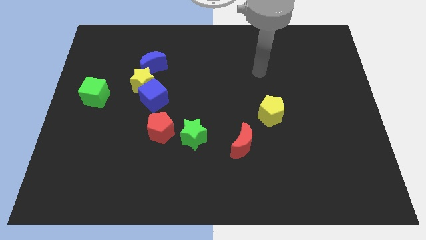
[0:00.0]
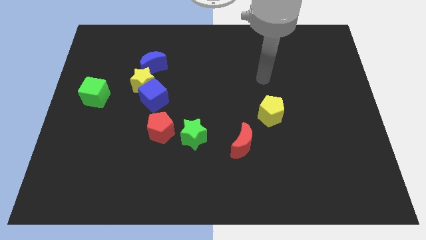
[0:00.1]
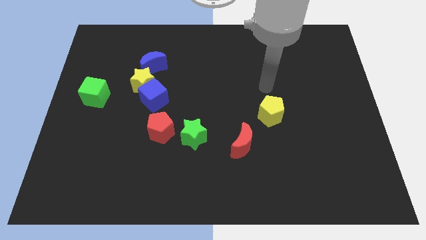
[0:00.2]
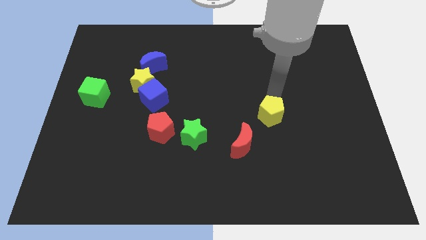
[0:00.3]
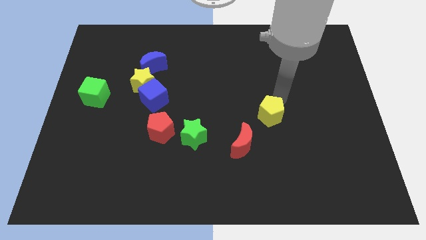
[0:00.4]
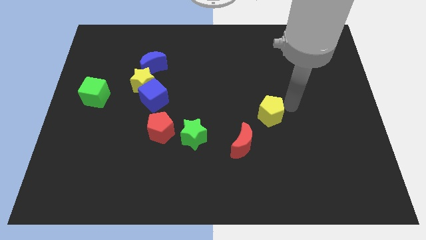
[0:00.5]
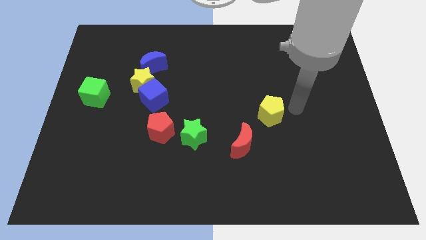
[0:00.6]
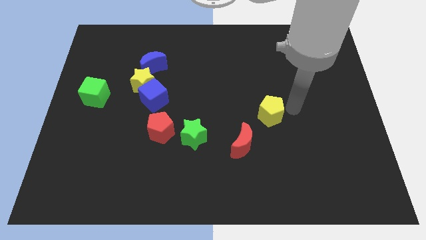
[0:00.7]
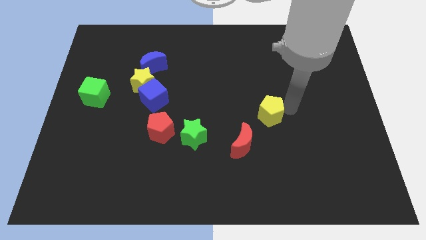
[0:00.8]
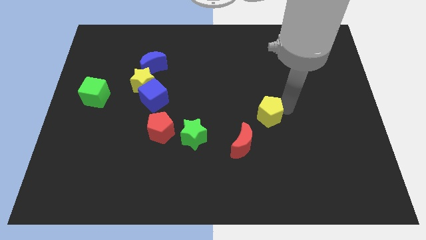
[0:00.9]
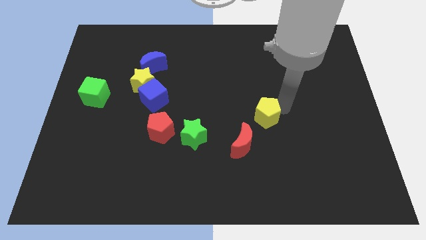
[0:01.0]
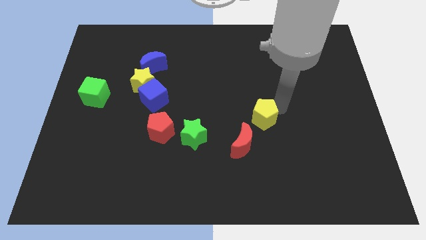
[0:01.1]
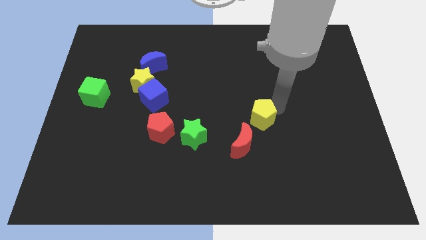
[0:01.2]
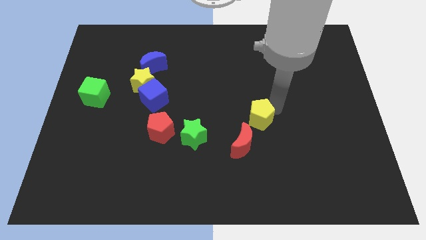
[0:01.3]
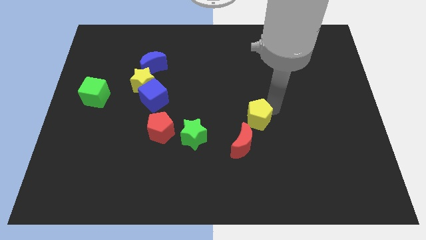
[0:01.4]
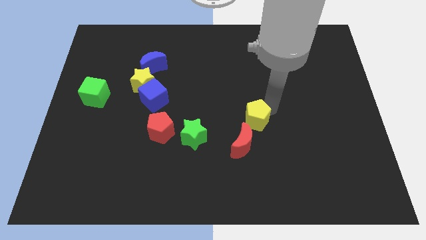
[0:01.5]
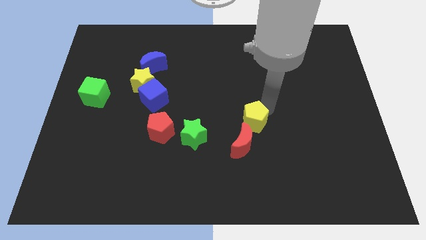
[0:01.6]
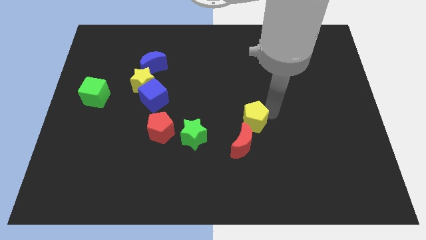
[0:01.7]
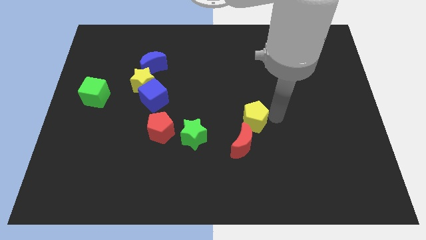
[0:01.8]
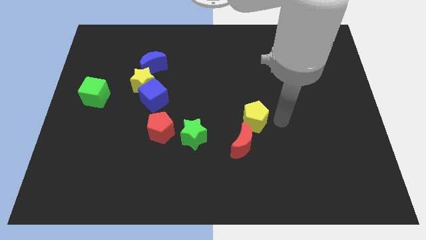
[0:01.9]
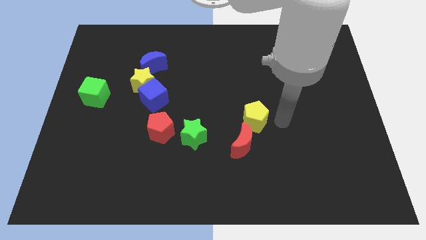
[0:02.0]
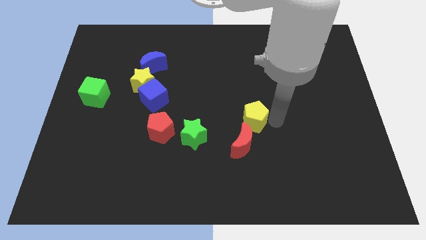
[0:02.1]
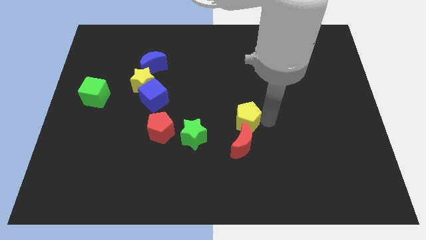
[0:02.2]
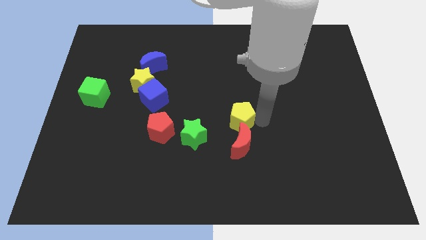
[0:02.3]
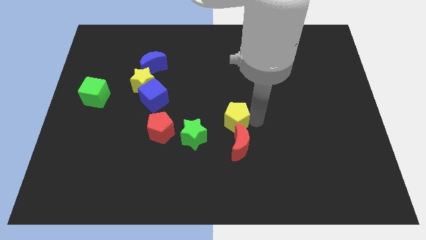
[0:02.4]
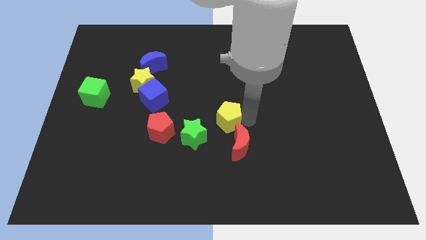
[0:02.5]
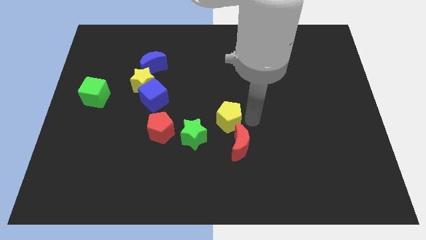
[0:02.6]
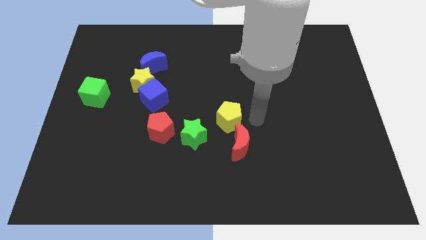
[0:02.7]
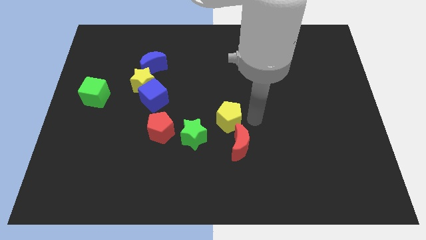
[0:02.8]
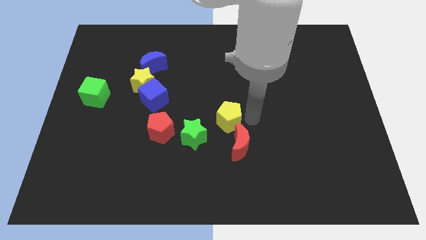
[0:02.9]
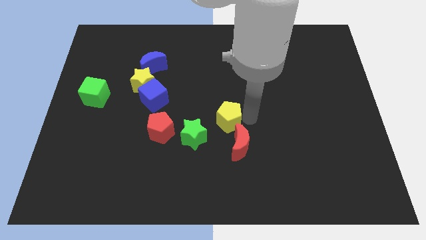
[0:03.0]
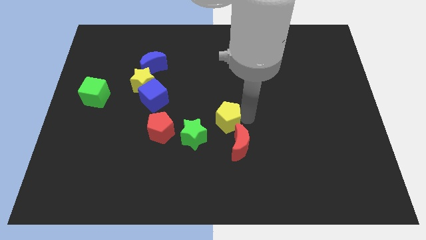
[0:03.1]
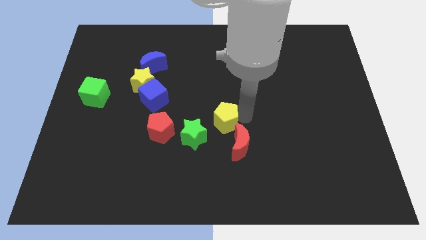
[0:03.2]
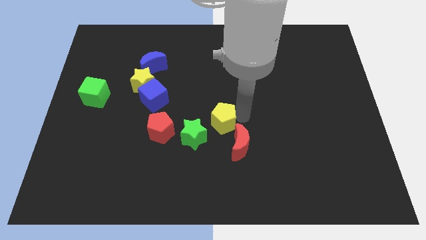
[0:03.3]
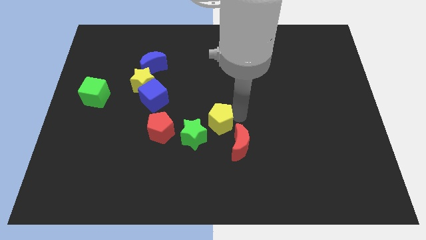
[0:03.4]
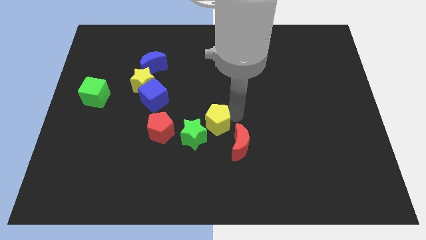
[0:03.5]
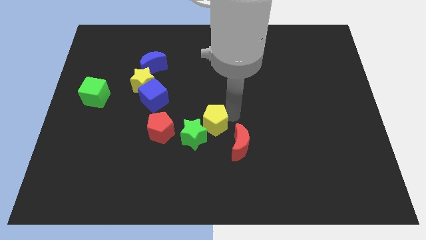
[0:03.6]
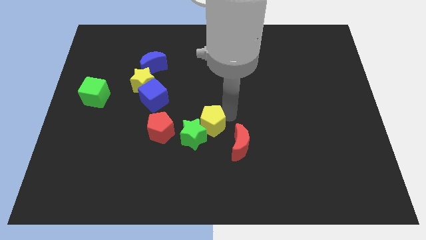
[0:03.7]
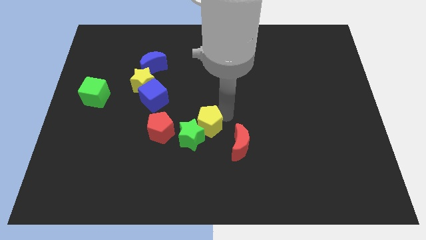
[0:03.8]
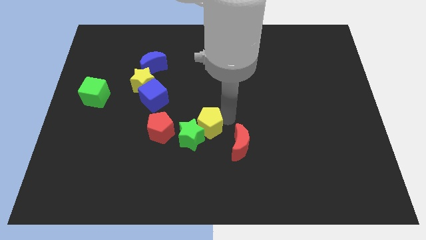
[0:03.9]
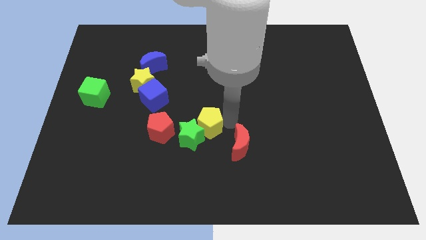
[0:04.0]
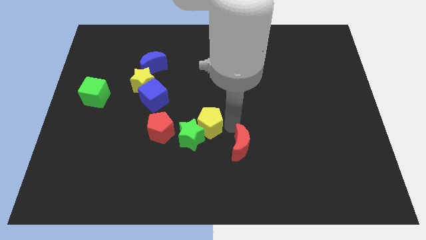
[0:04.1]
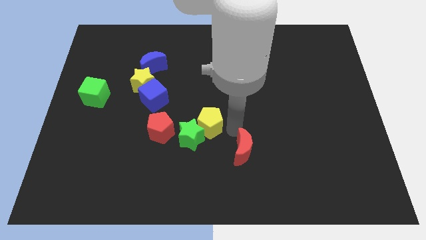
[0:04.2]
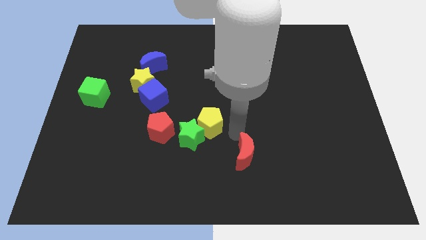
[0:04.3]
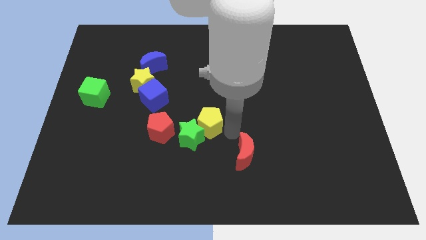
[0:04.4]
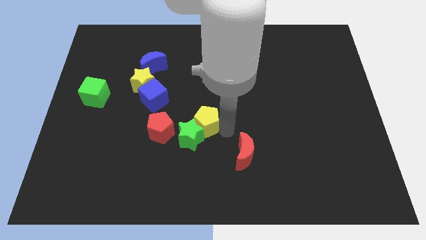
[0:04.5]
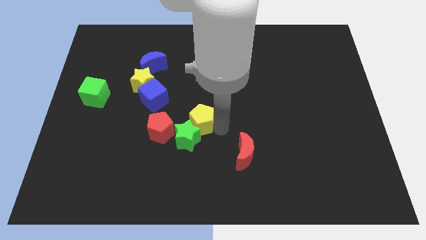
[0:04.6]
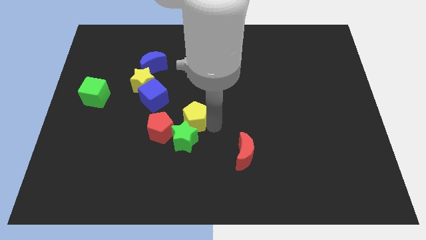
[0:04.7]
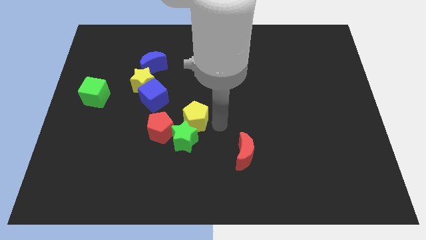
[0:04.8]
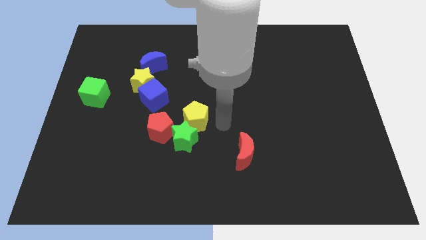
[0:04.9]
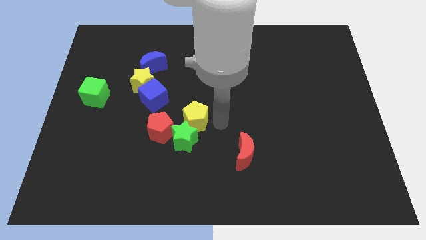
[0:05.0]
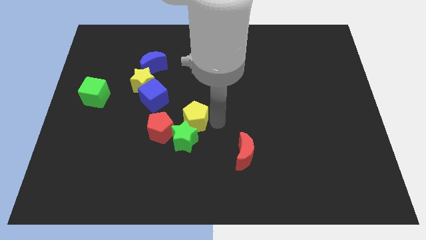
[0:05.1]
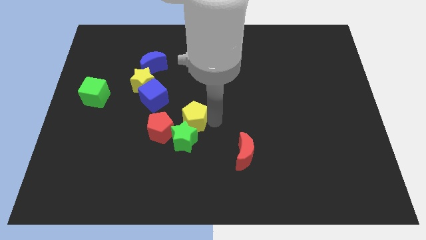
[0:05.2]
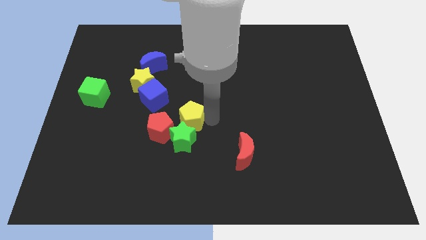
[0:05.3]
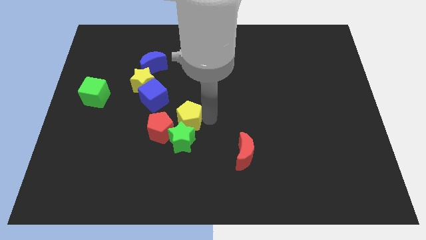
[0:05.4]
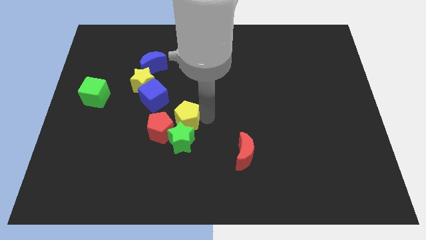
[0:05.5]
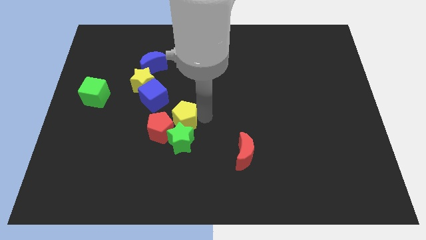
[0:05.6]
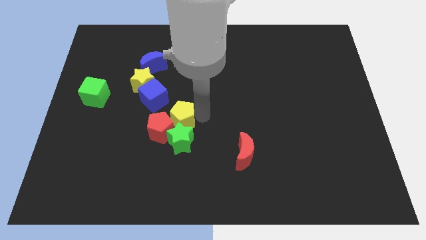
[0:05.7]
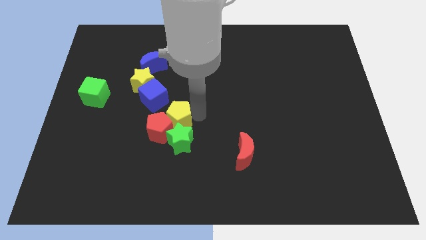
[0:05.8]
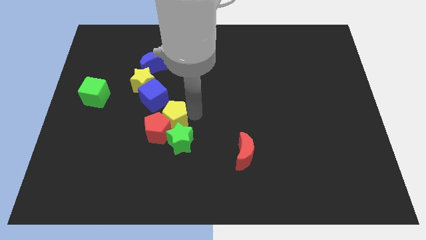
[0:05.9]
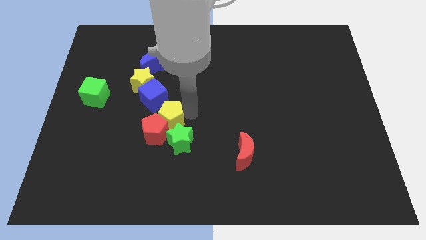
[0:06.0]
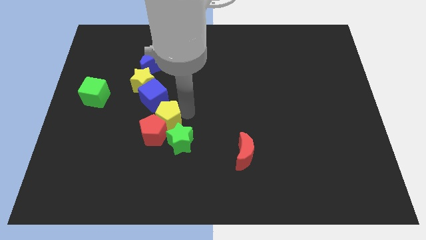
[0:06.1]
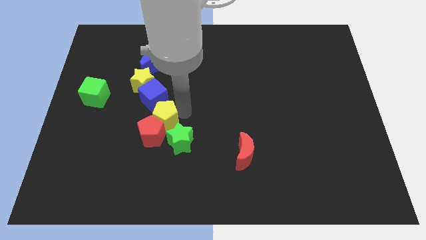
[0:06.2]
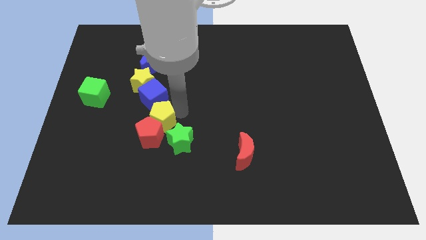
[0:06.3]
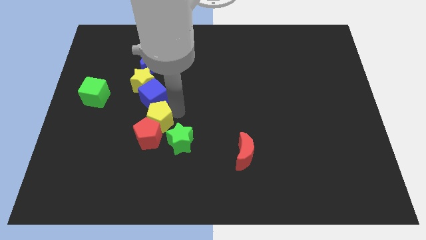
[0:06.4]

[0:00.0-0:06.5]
slide the yellow pentagon below the yellow star
